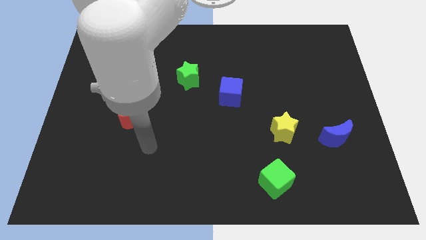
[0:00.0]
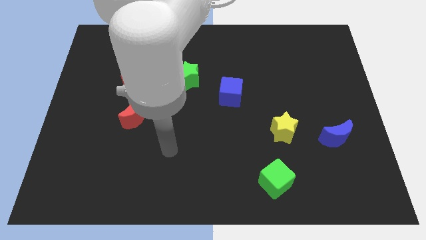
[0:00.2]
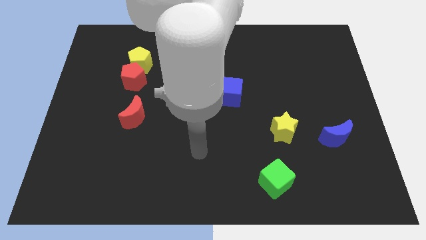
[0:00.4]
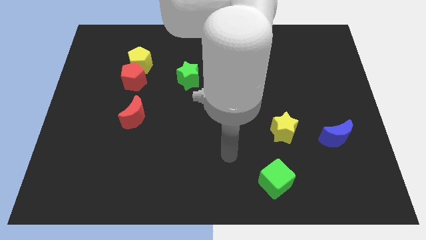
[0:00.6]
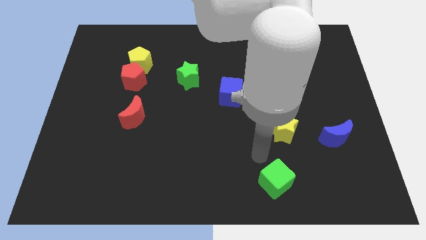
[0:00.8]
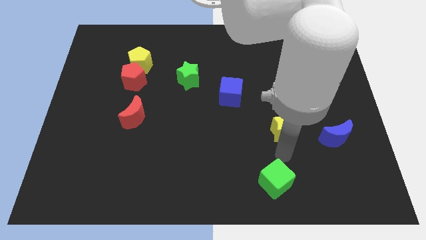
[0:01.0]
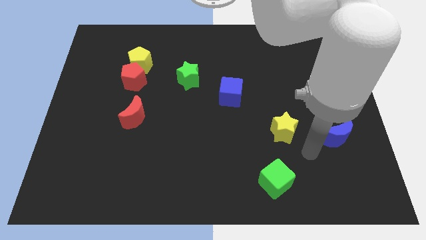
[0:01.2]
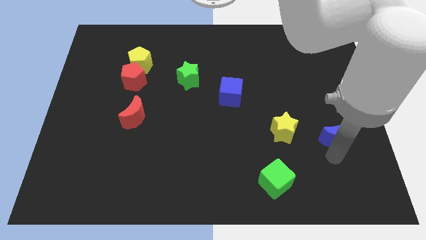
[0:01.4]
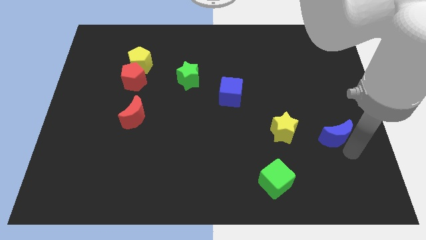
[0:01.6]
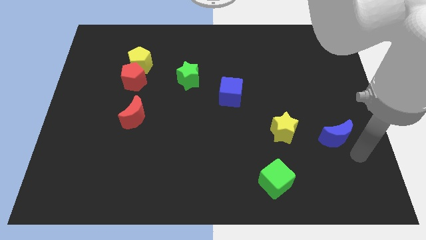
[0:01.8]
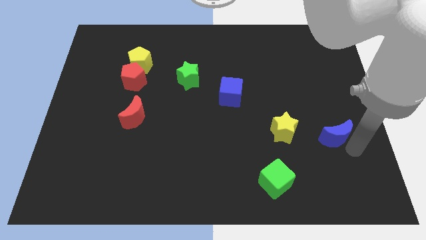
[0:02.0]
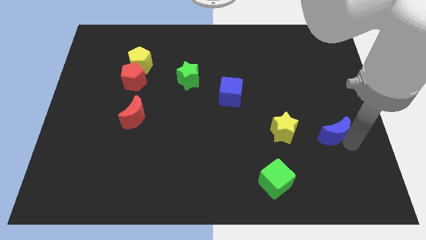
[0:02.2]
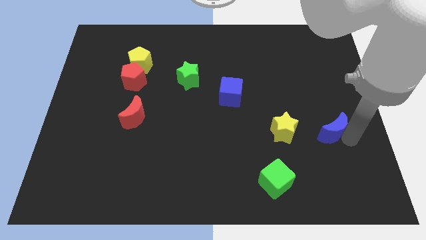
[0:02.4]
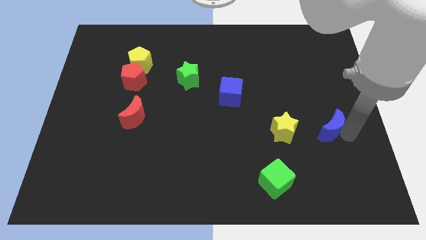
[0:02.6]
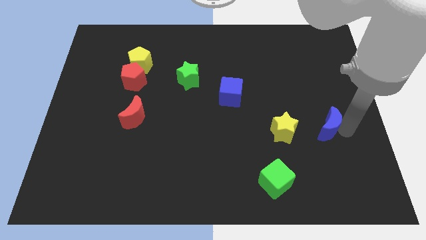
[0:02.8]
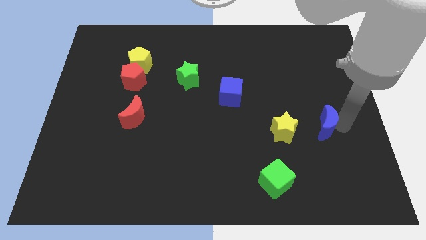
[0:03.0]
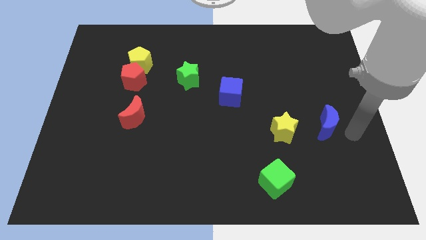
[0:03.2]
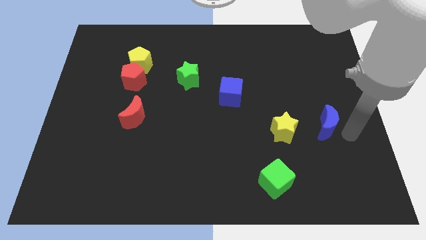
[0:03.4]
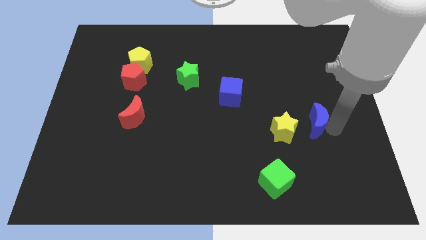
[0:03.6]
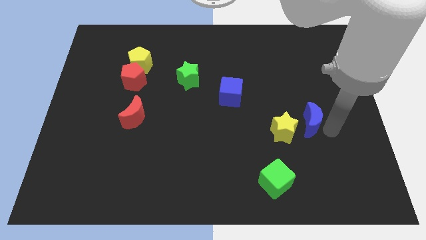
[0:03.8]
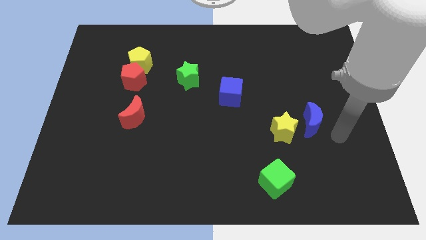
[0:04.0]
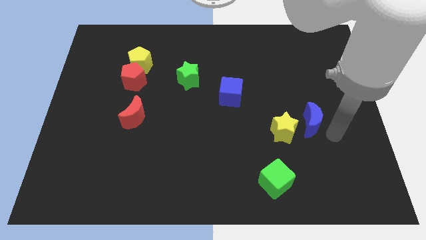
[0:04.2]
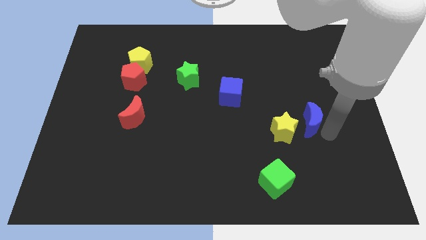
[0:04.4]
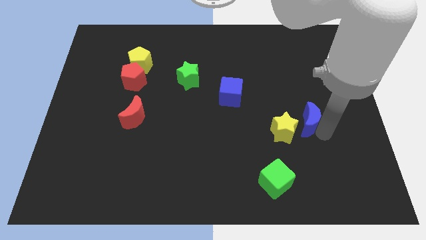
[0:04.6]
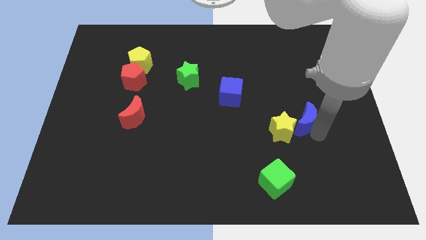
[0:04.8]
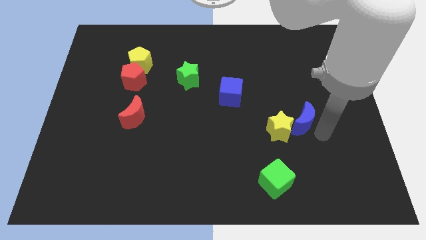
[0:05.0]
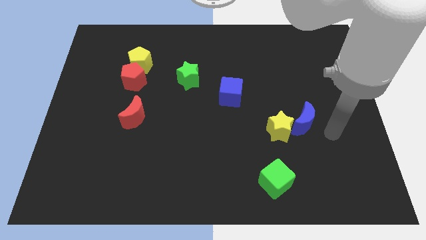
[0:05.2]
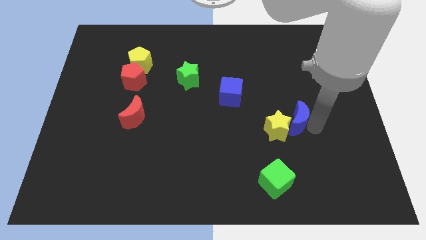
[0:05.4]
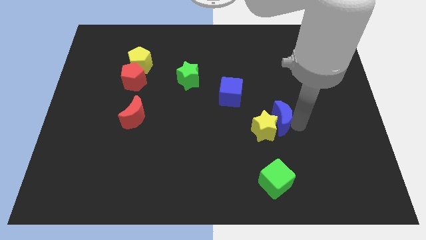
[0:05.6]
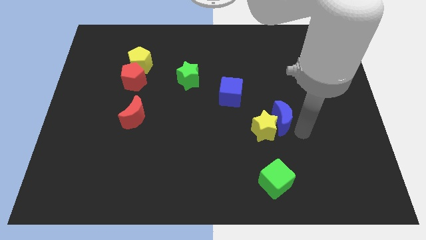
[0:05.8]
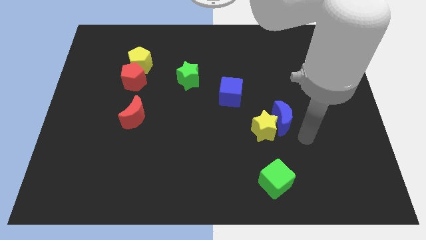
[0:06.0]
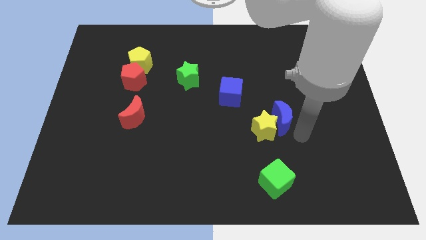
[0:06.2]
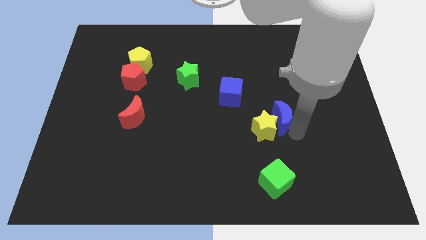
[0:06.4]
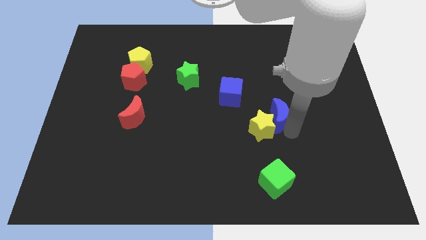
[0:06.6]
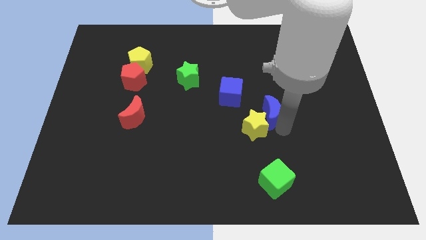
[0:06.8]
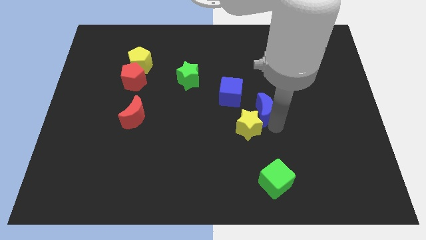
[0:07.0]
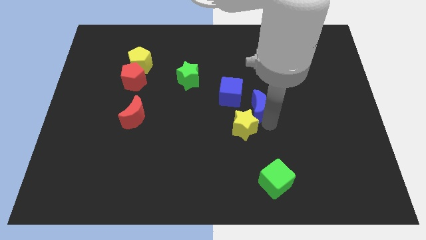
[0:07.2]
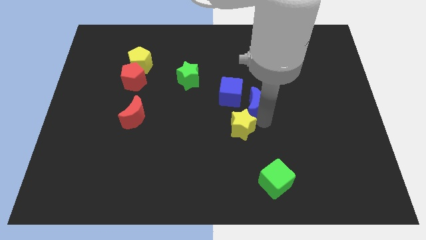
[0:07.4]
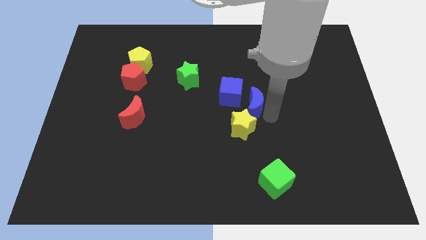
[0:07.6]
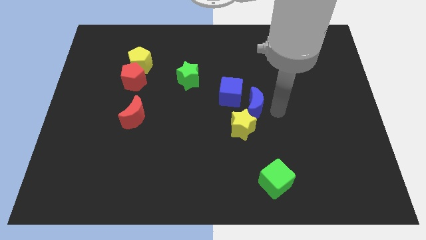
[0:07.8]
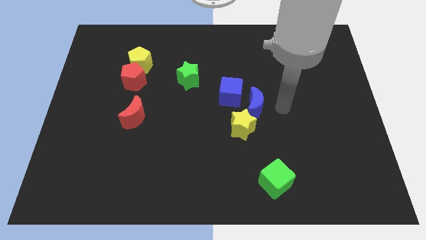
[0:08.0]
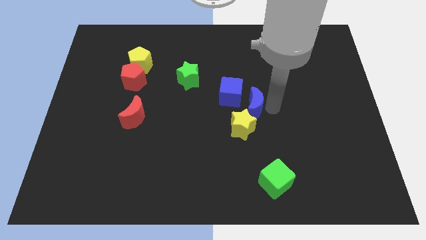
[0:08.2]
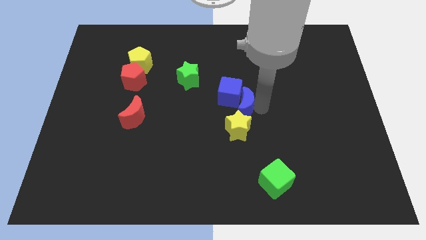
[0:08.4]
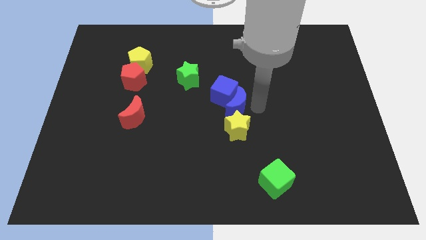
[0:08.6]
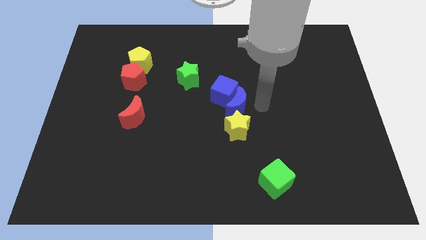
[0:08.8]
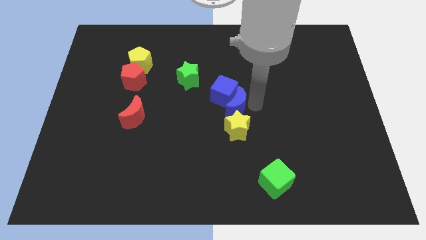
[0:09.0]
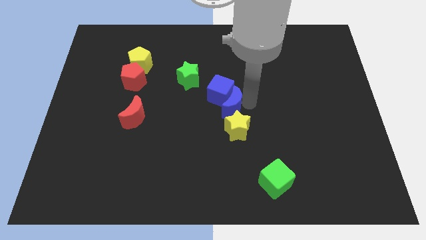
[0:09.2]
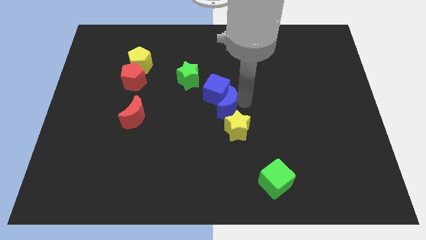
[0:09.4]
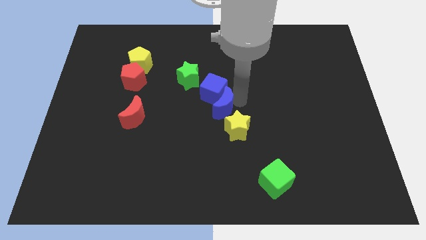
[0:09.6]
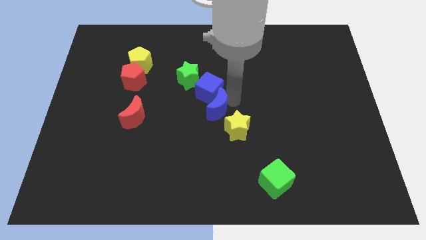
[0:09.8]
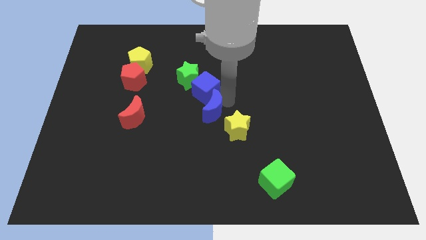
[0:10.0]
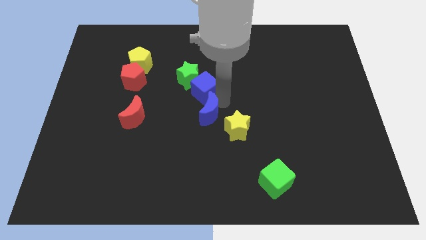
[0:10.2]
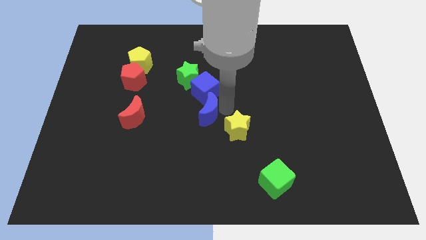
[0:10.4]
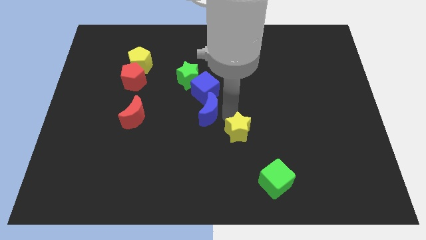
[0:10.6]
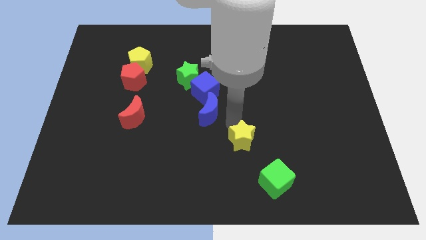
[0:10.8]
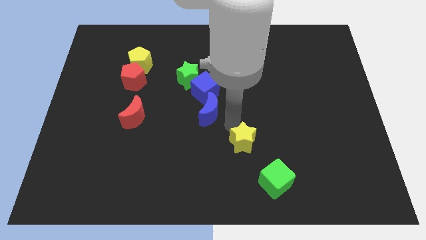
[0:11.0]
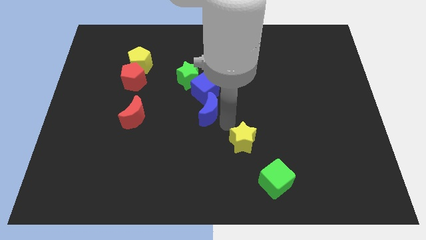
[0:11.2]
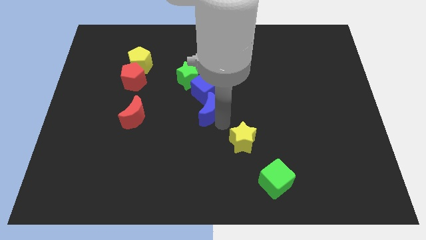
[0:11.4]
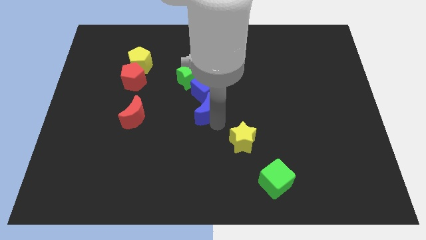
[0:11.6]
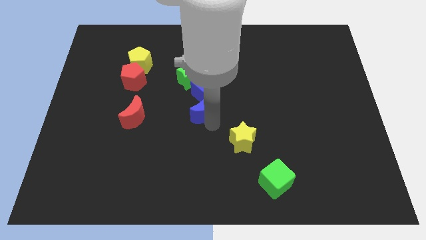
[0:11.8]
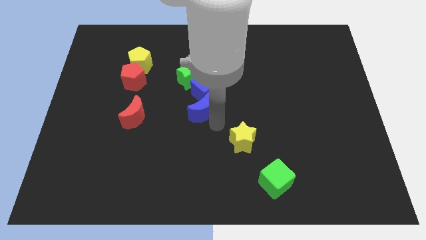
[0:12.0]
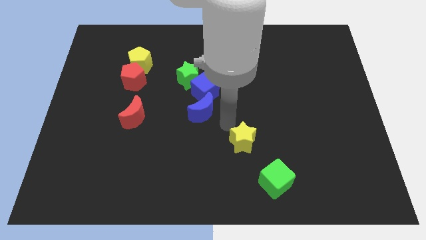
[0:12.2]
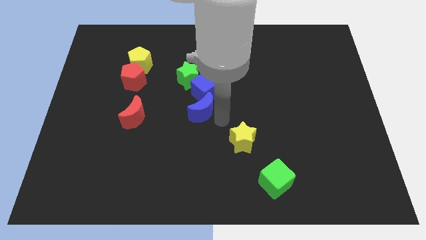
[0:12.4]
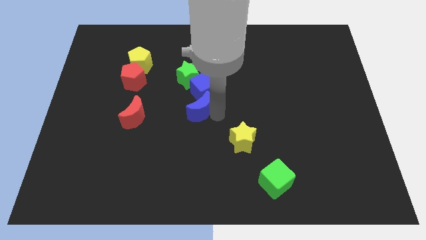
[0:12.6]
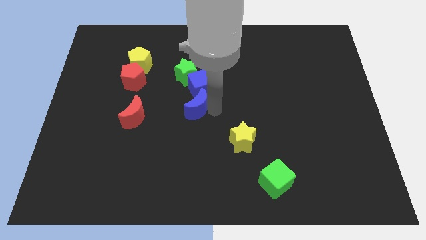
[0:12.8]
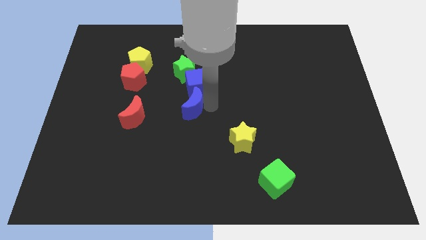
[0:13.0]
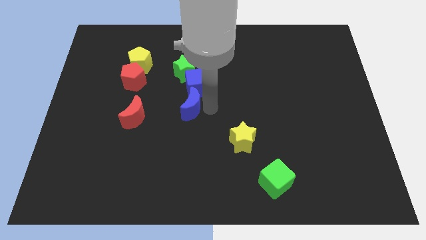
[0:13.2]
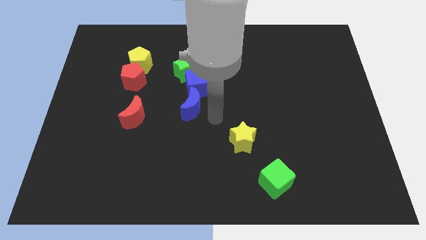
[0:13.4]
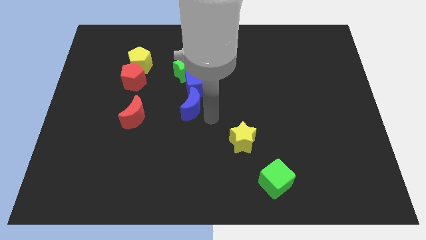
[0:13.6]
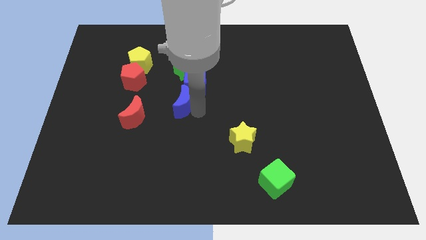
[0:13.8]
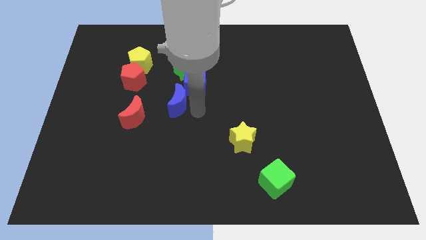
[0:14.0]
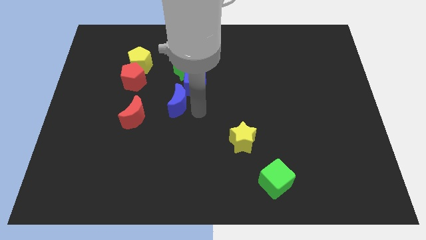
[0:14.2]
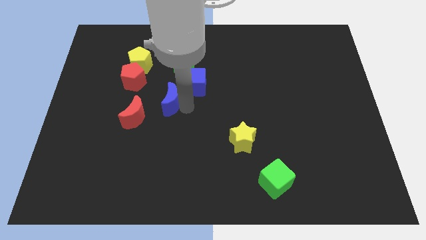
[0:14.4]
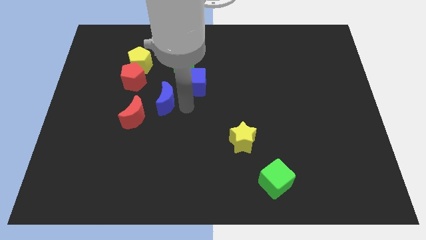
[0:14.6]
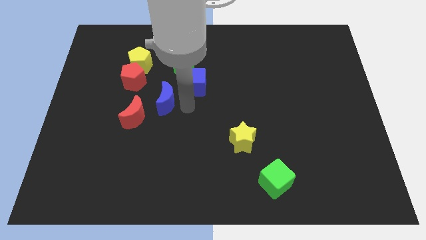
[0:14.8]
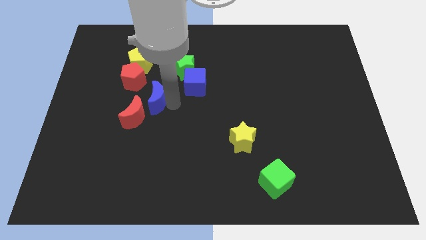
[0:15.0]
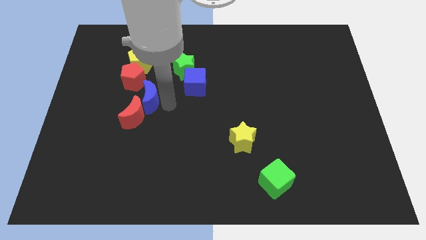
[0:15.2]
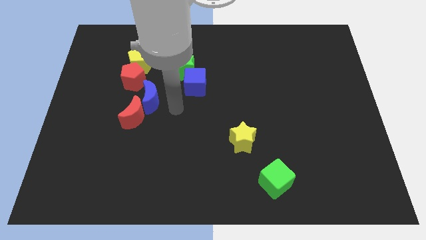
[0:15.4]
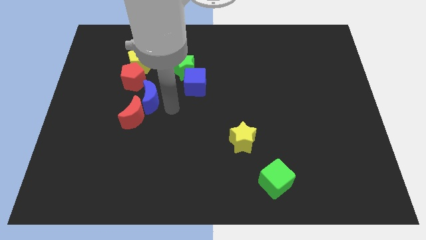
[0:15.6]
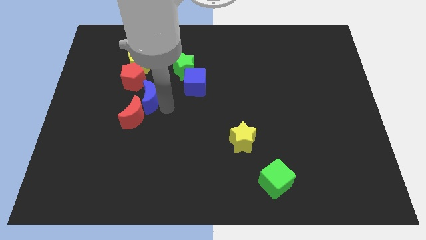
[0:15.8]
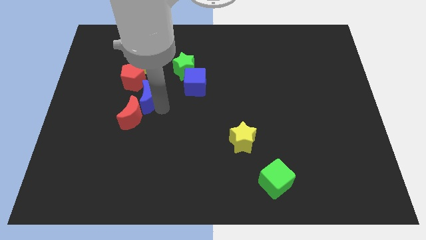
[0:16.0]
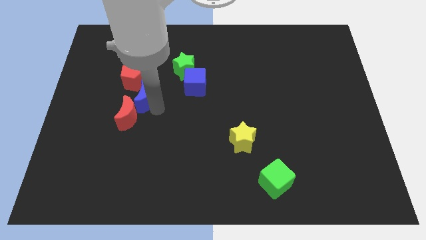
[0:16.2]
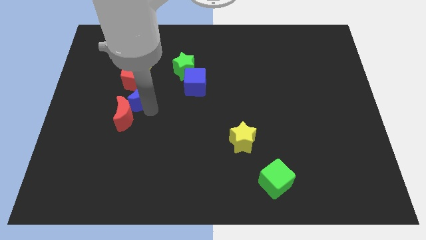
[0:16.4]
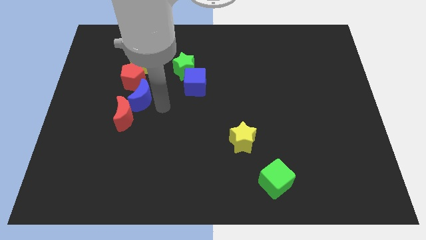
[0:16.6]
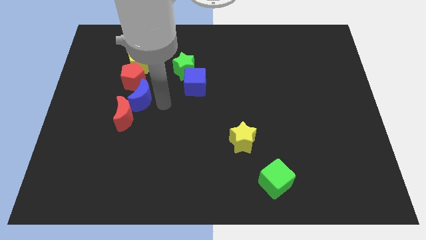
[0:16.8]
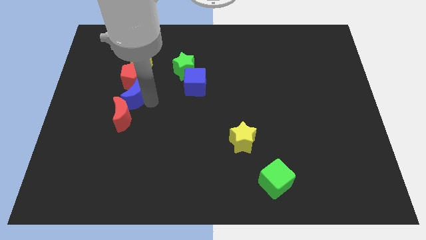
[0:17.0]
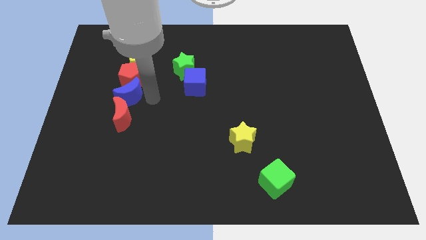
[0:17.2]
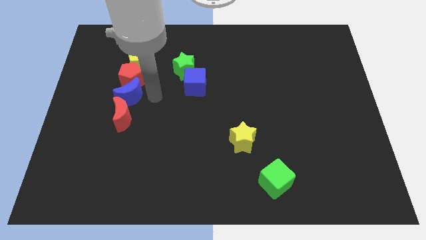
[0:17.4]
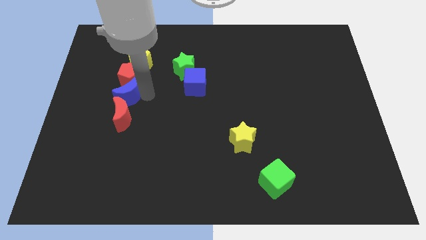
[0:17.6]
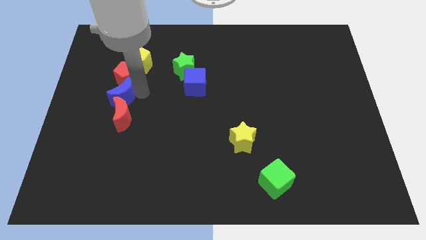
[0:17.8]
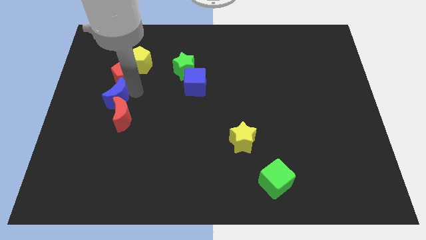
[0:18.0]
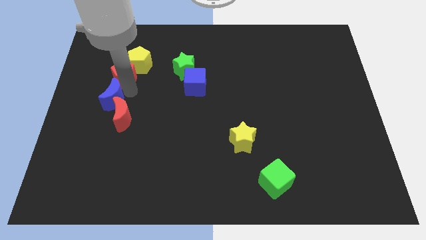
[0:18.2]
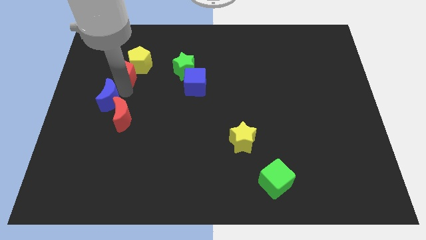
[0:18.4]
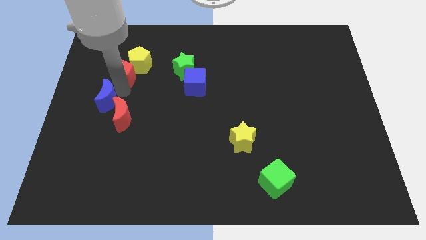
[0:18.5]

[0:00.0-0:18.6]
put the blue moon to the center left
